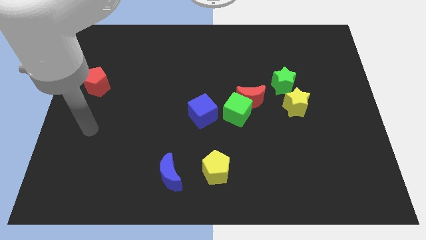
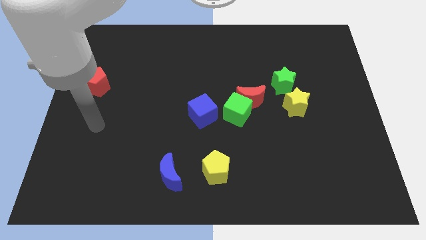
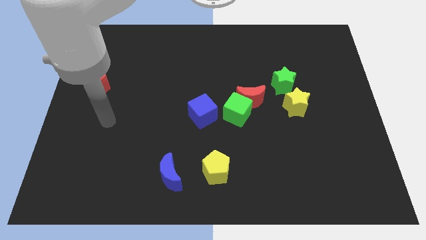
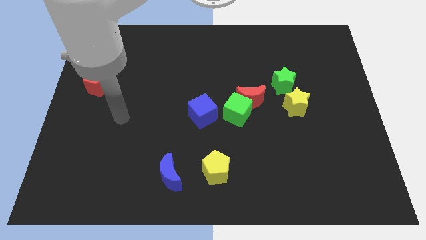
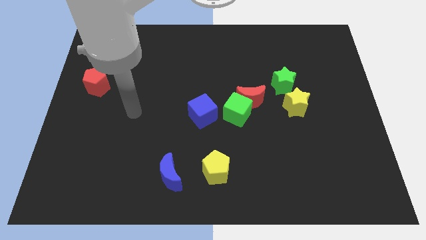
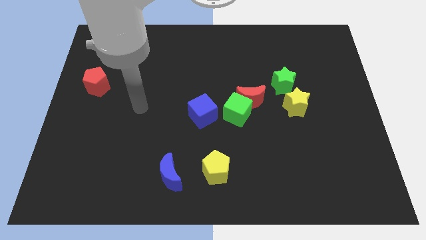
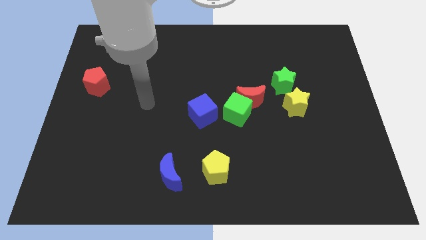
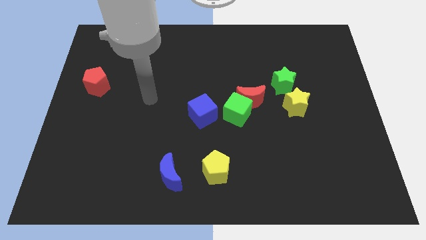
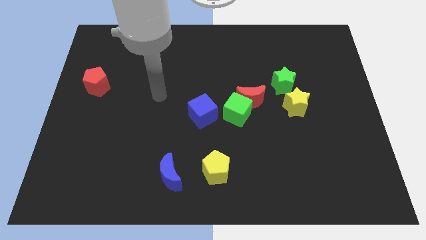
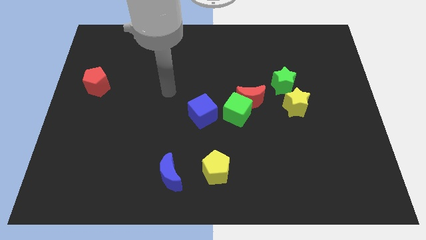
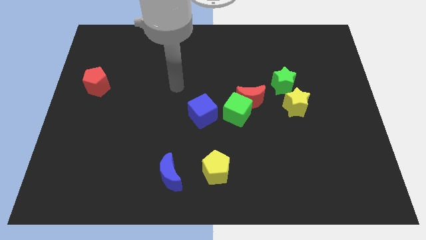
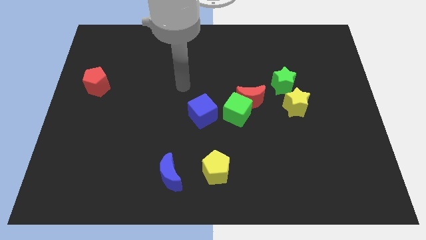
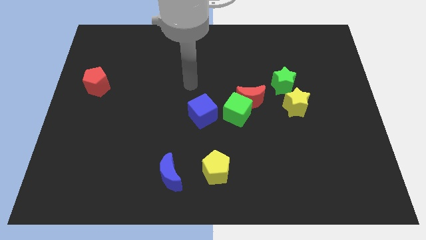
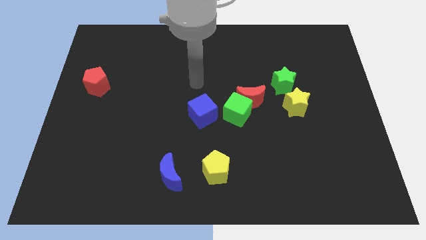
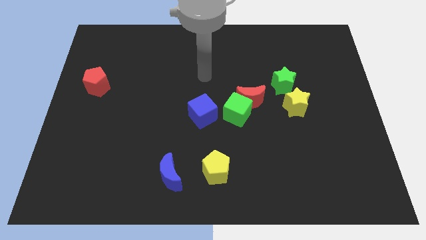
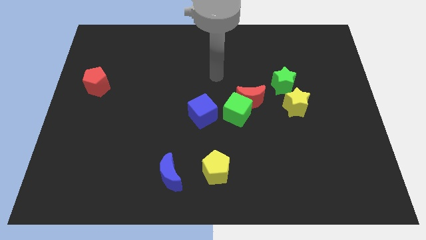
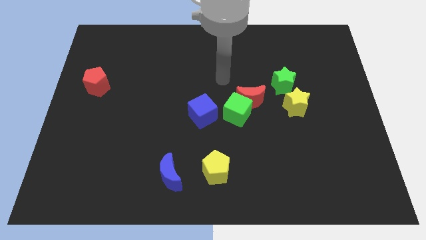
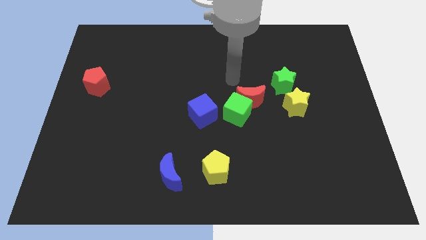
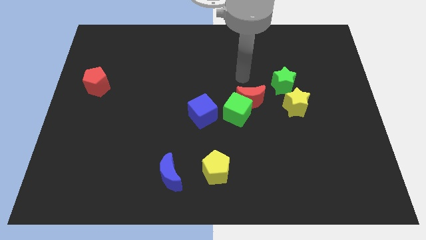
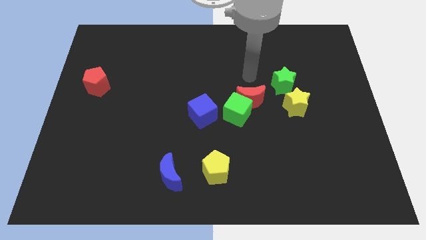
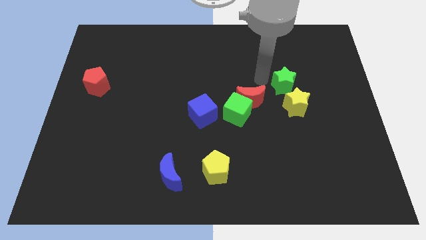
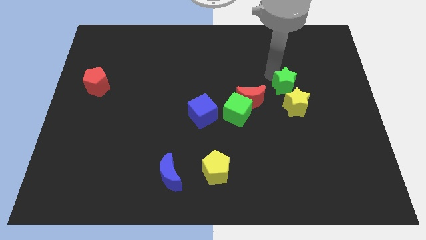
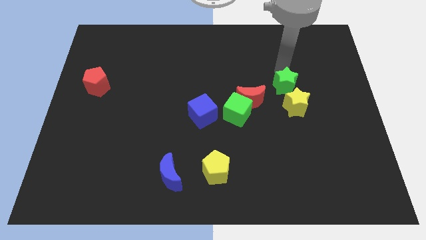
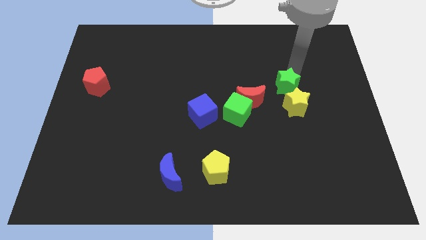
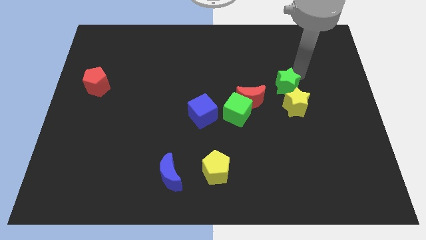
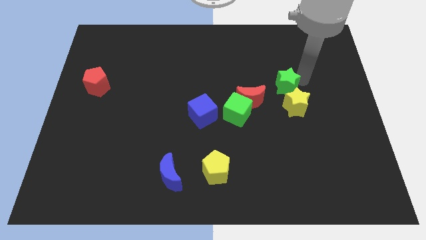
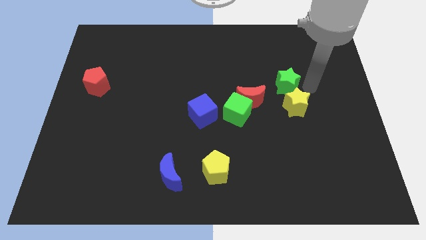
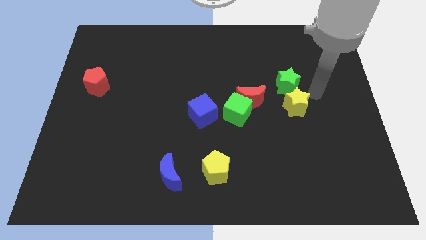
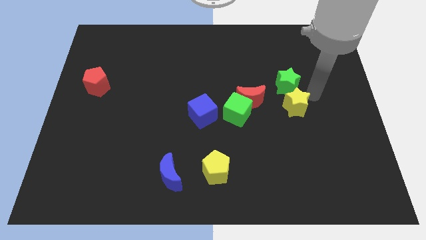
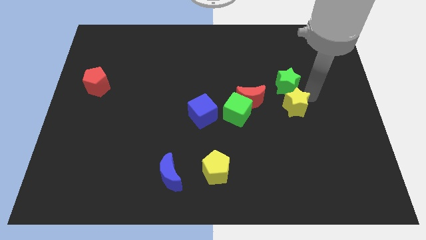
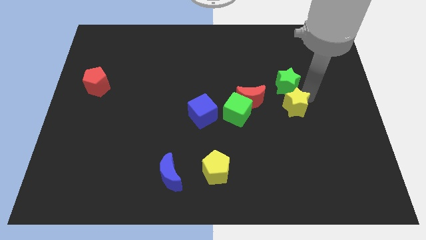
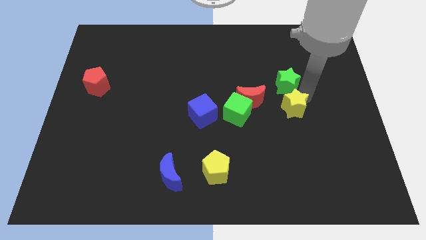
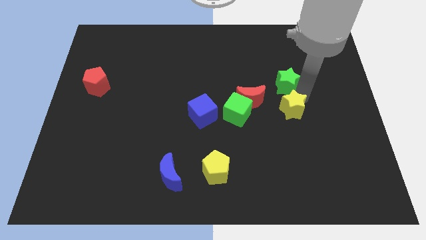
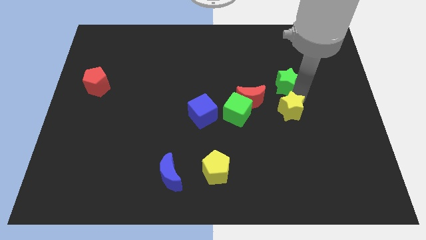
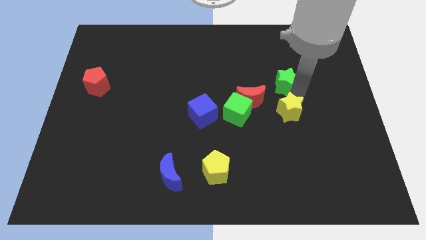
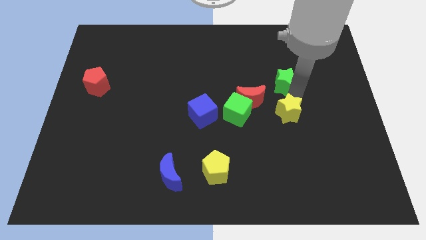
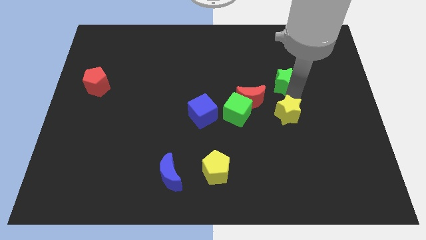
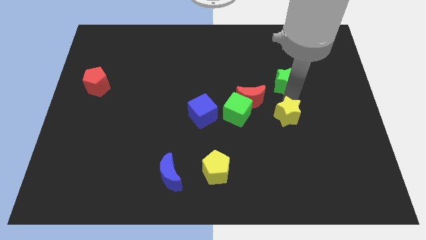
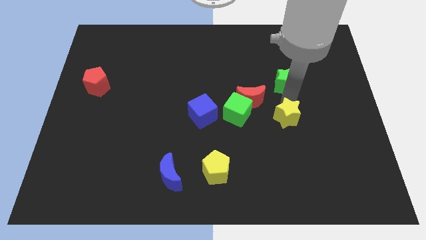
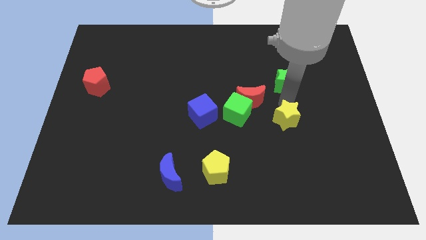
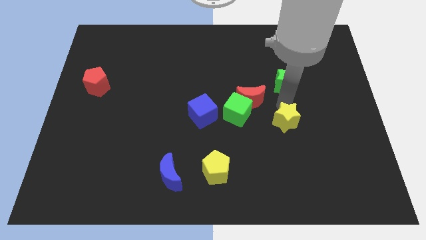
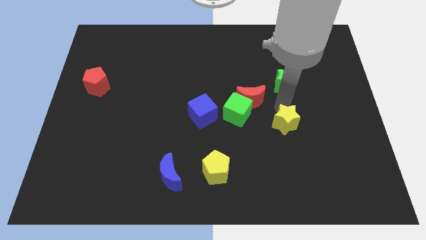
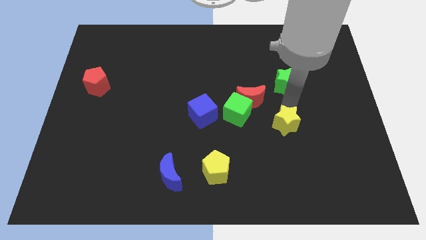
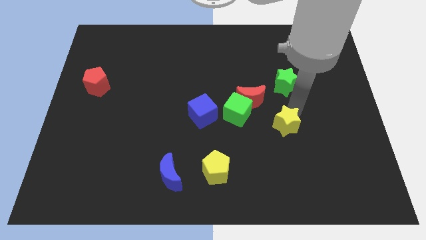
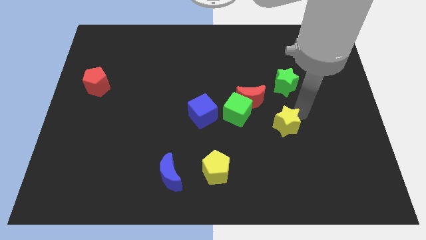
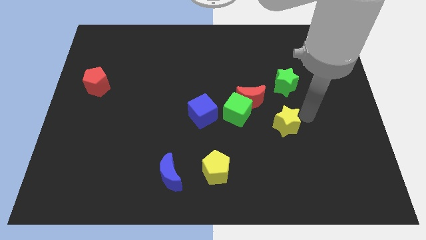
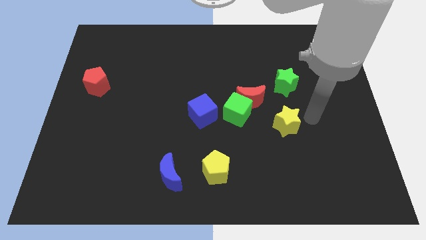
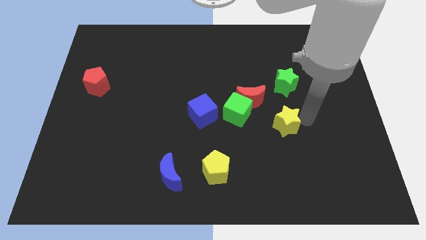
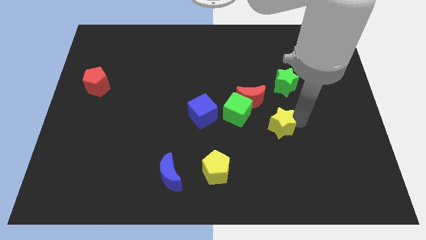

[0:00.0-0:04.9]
slide the yellow star somewhat diagonally down and left

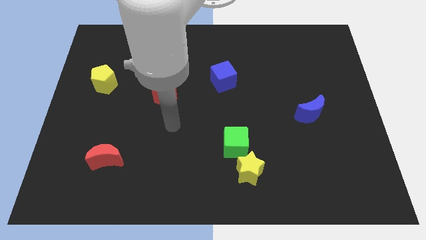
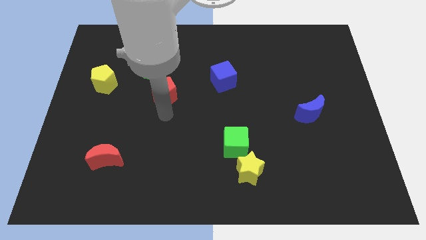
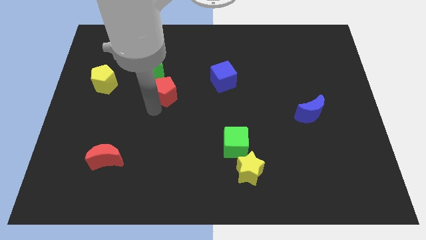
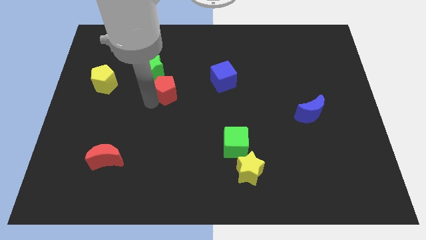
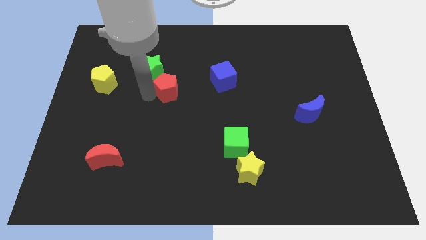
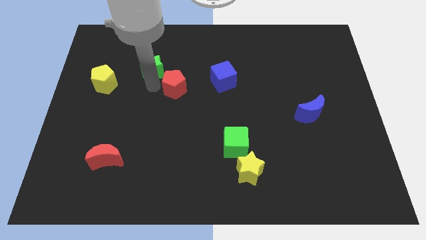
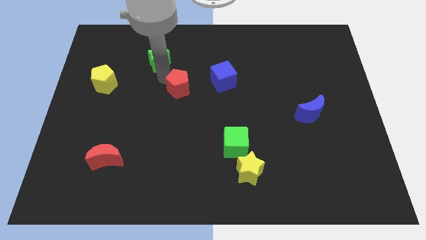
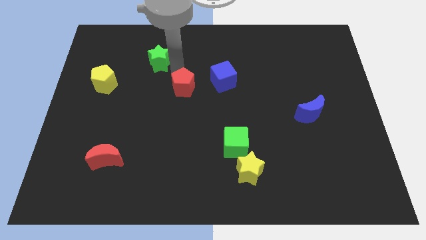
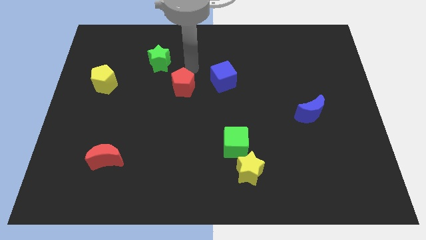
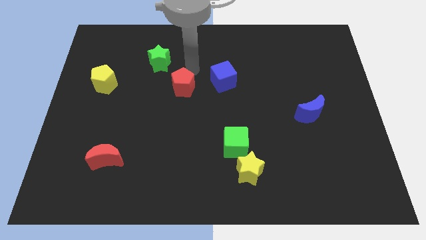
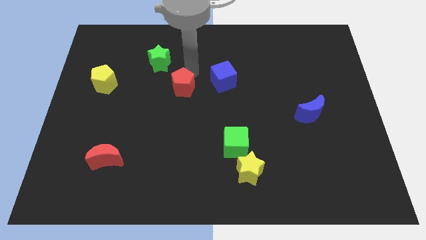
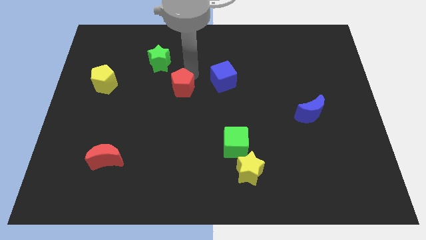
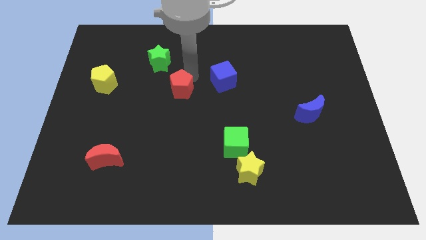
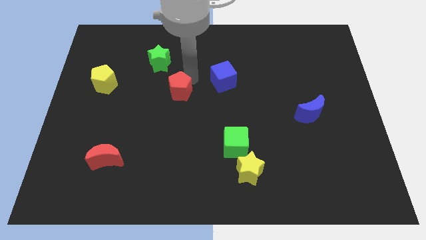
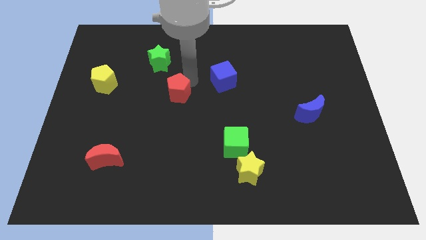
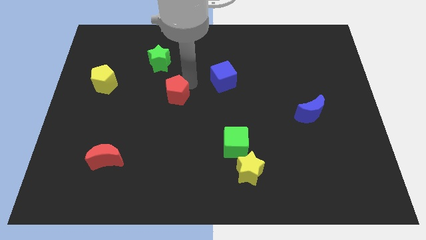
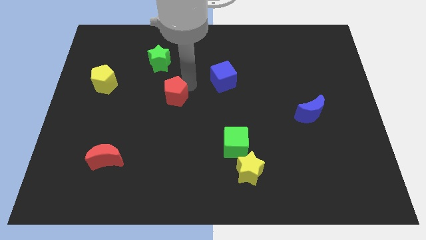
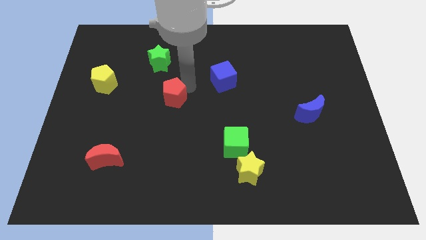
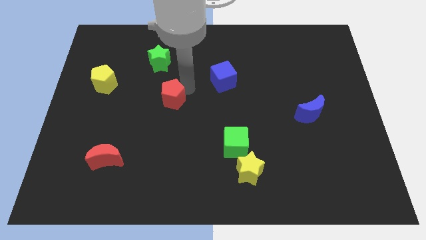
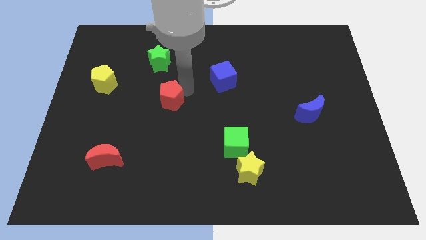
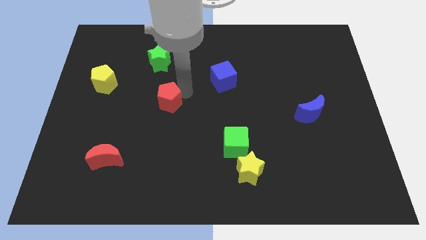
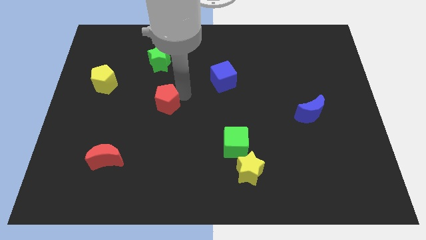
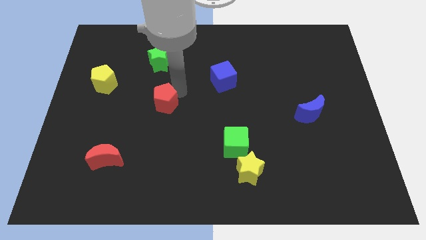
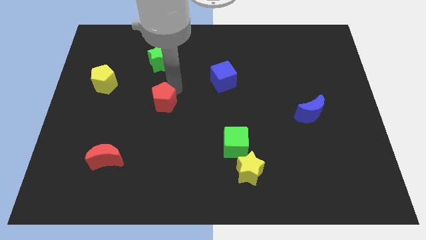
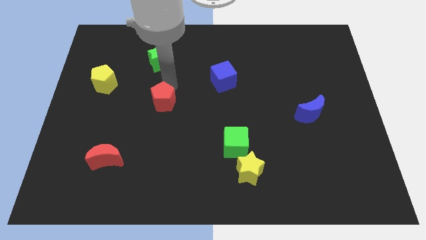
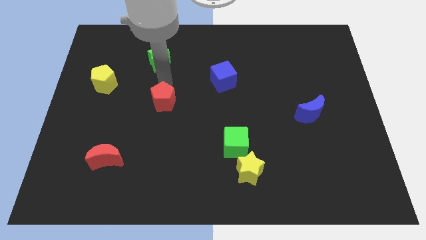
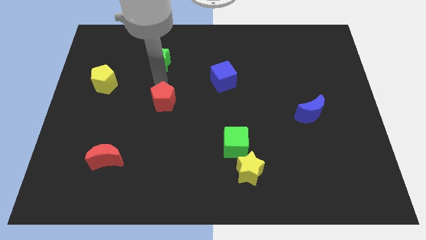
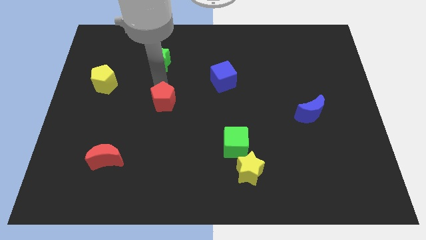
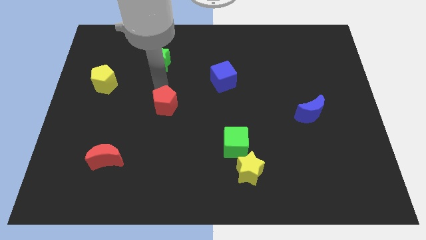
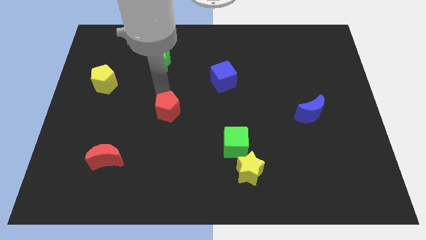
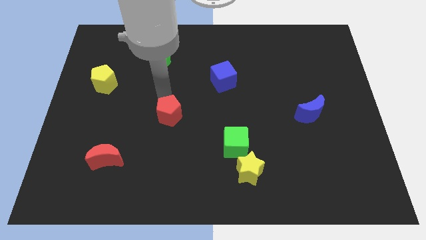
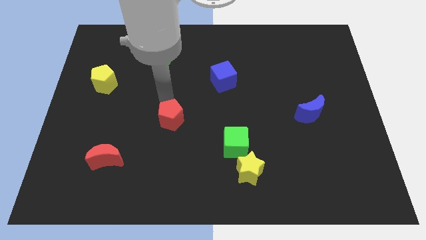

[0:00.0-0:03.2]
slightly move the red pentagon downwards

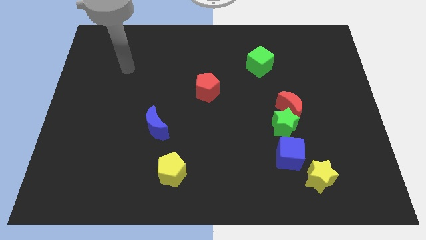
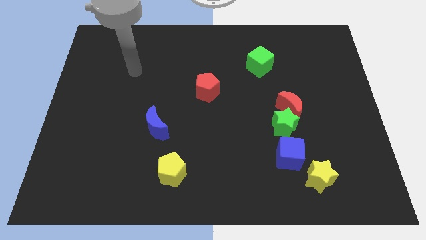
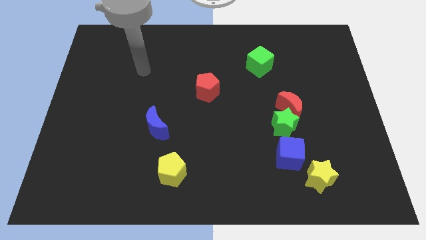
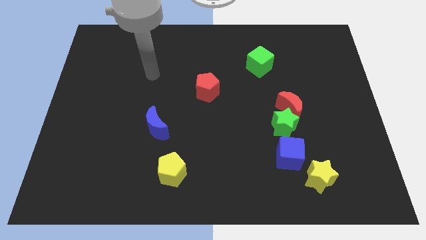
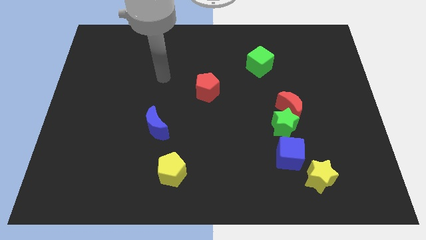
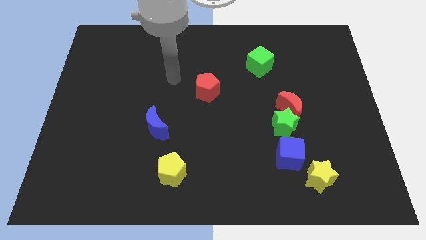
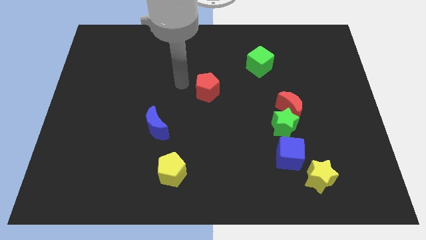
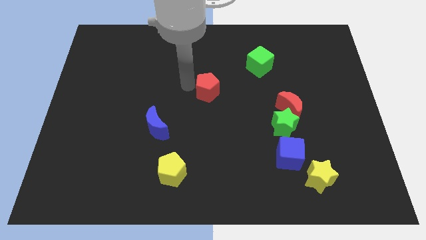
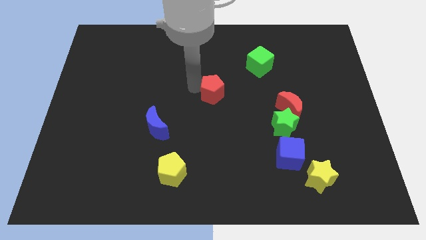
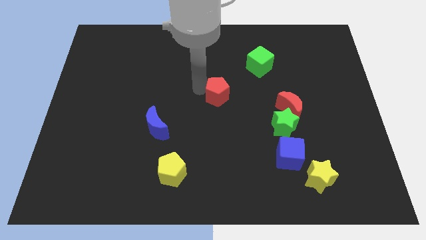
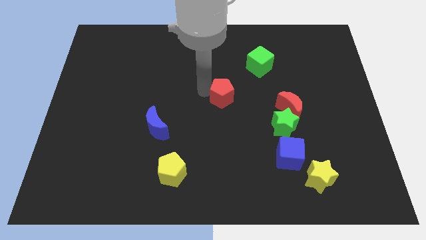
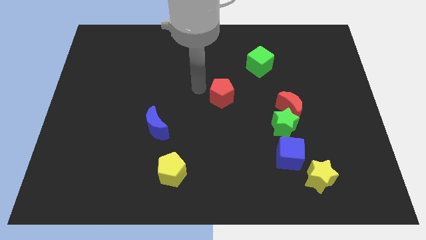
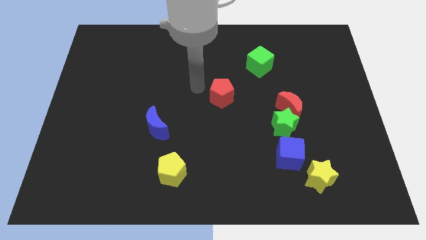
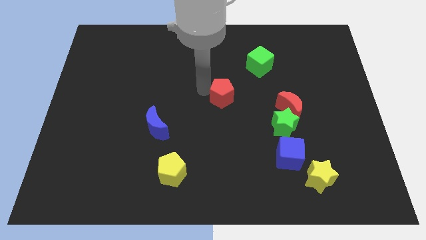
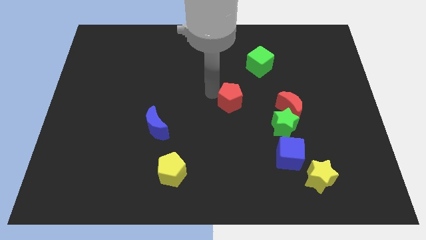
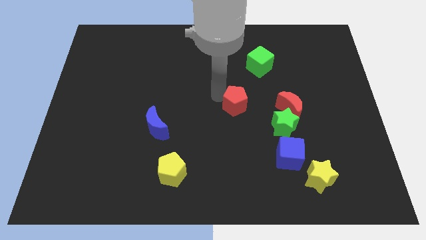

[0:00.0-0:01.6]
move the red pentagon downwards and right diagonally a little
